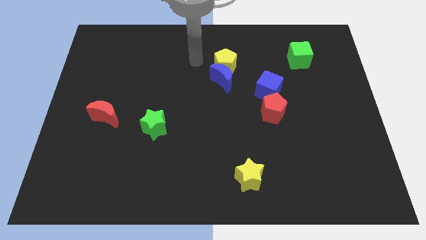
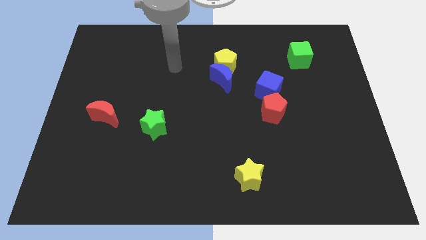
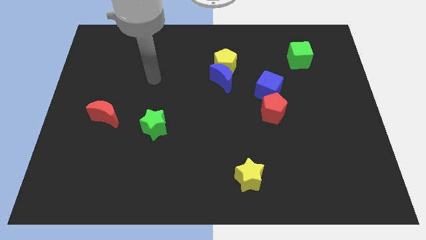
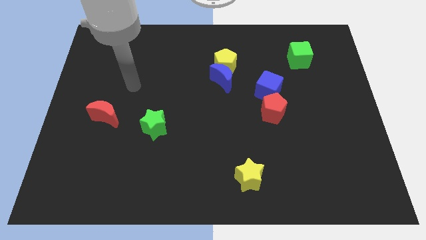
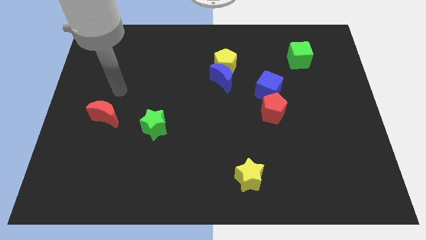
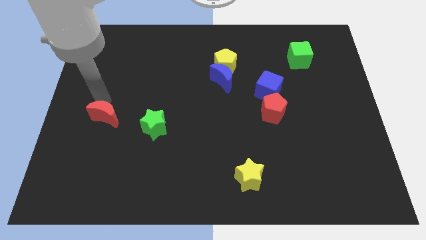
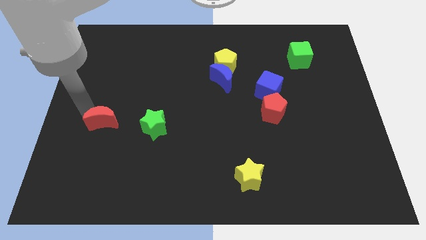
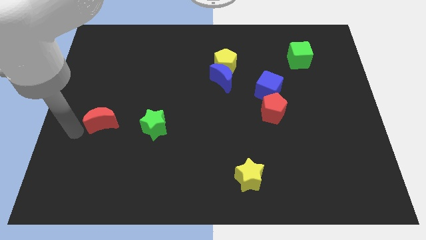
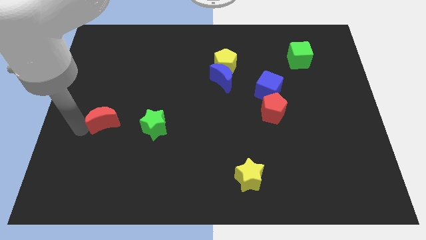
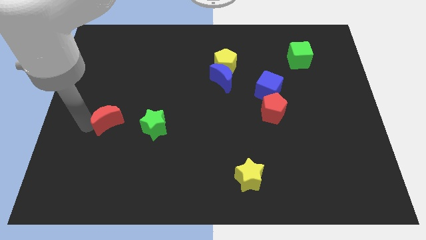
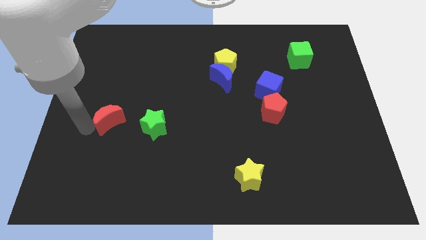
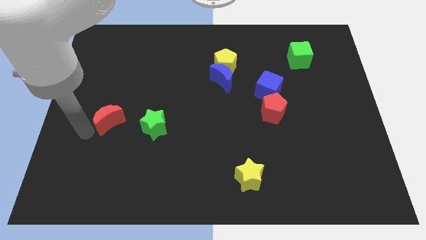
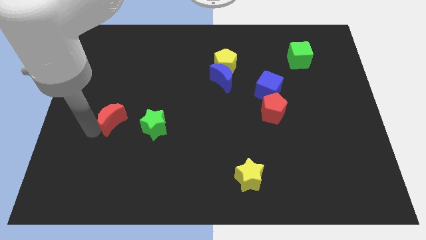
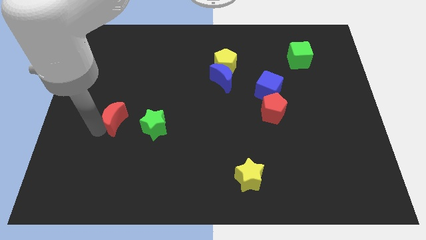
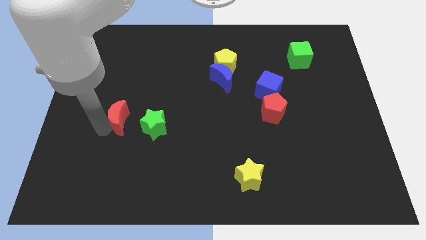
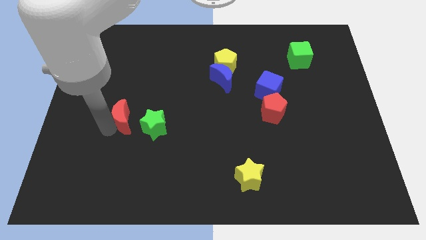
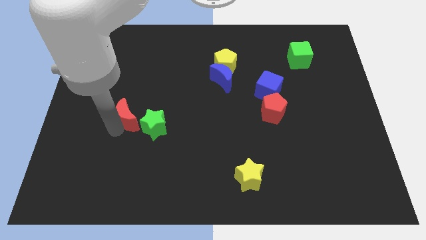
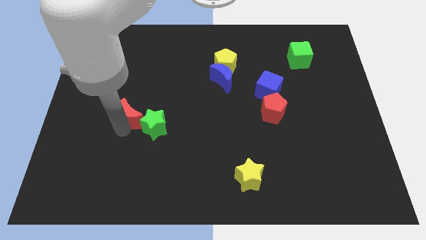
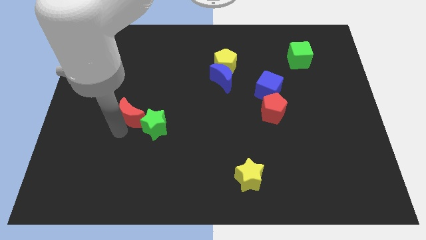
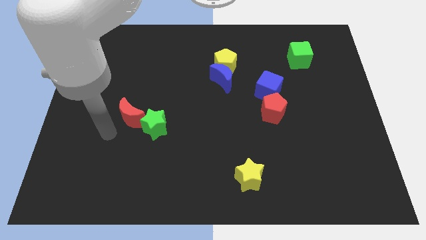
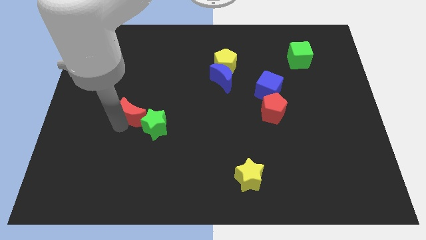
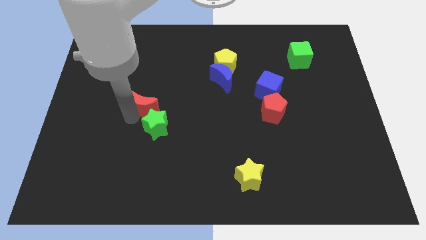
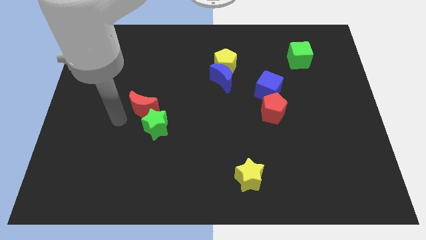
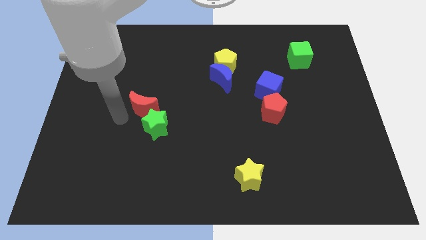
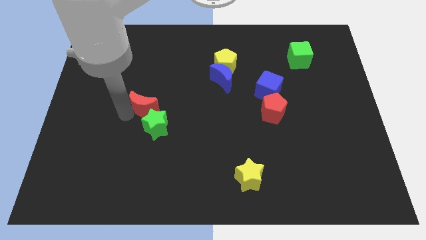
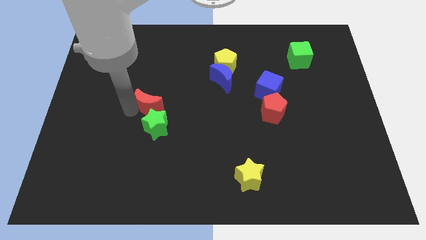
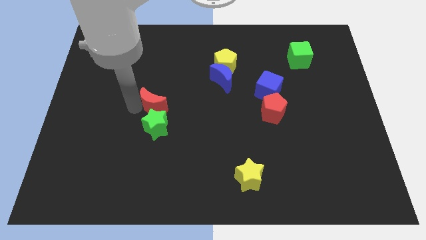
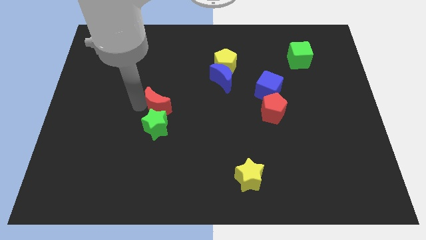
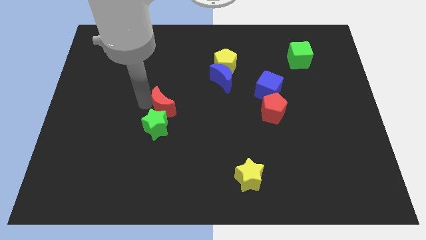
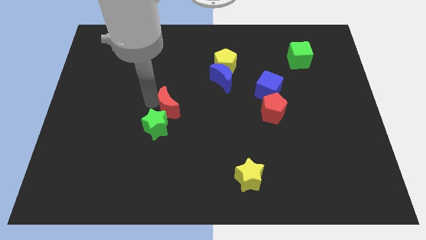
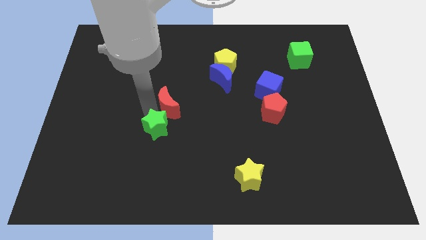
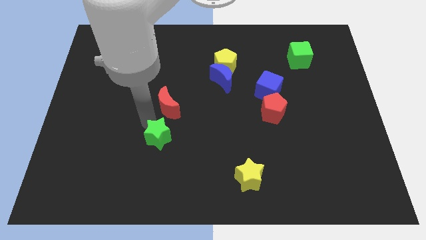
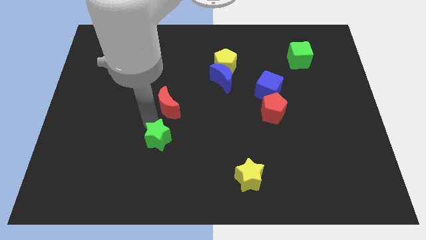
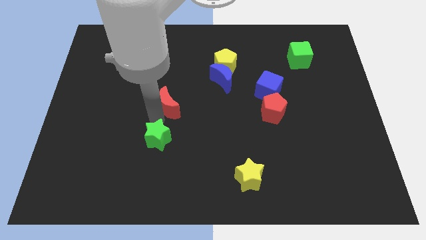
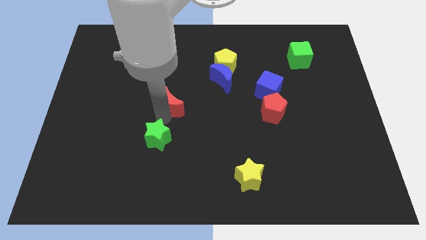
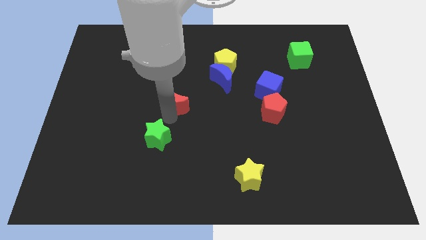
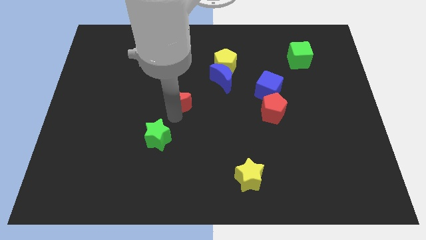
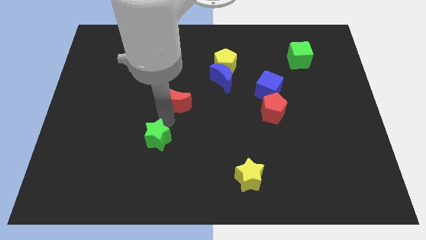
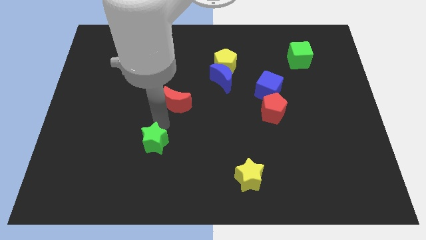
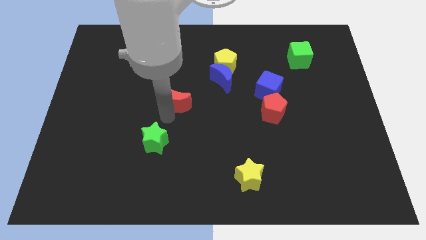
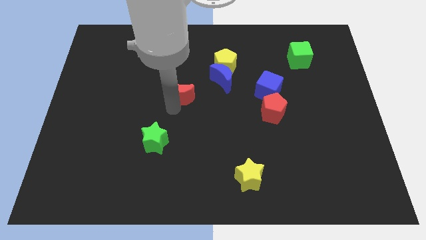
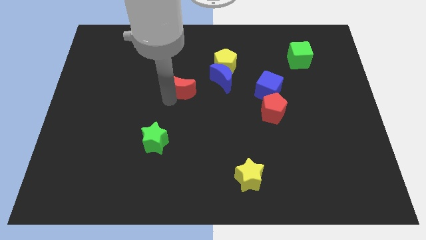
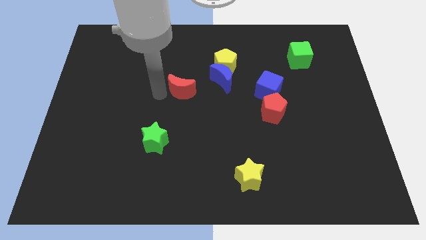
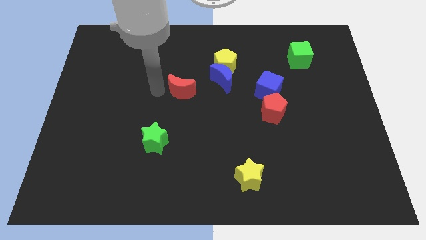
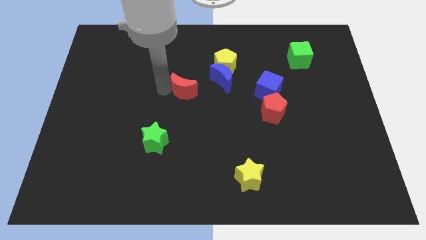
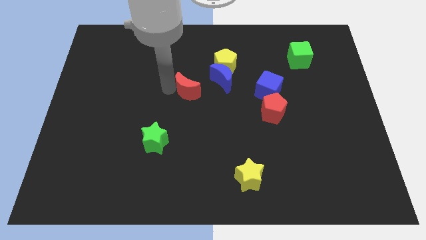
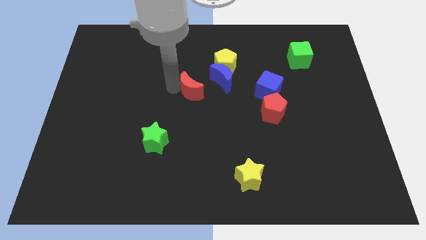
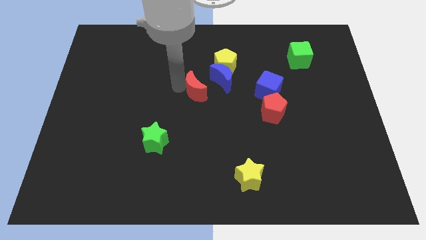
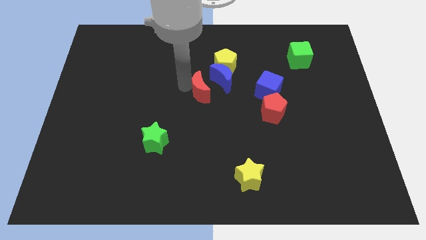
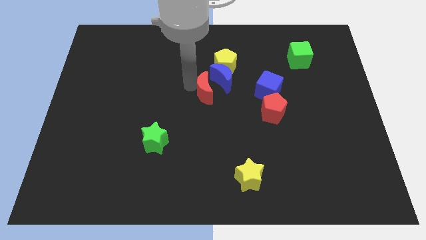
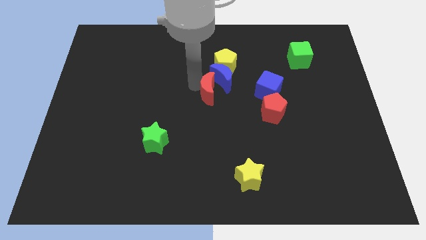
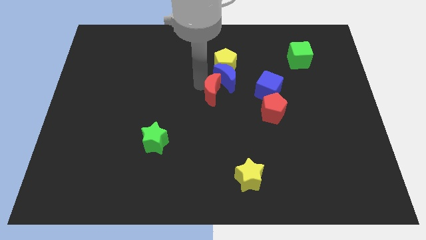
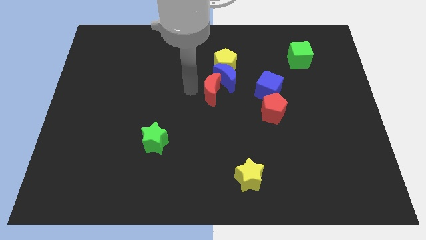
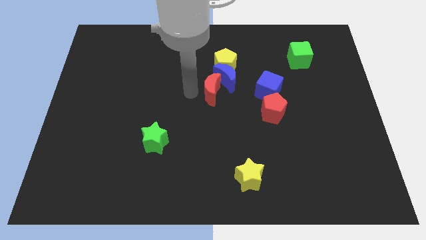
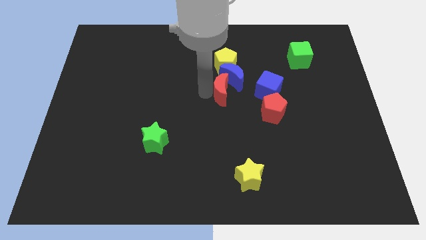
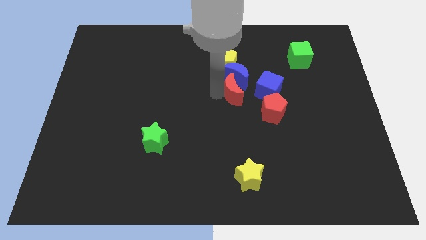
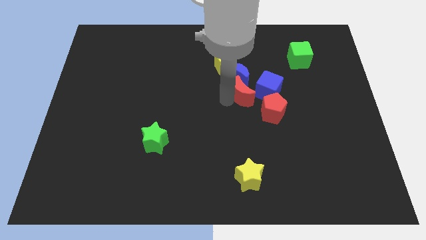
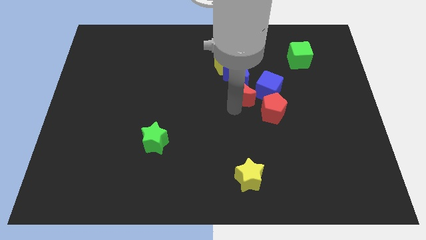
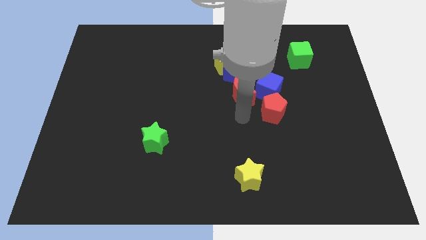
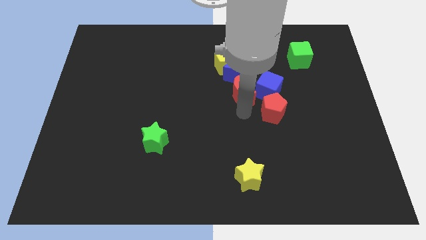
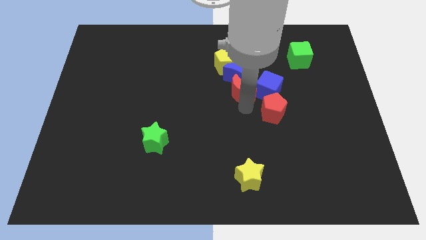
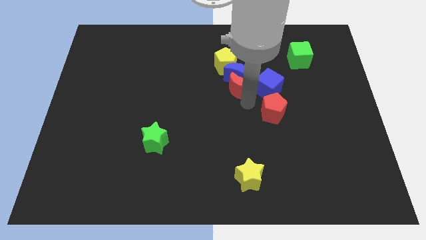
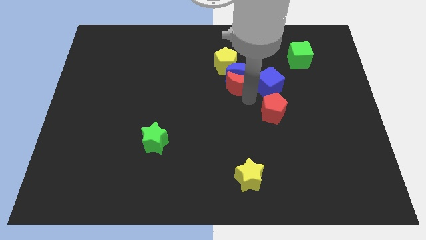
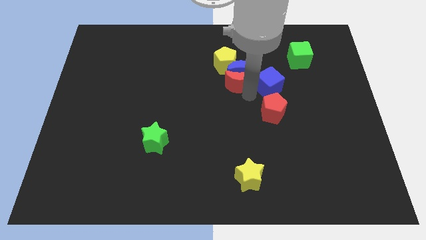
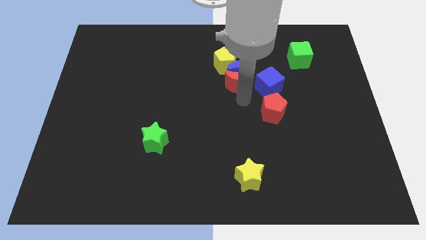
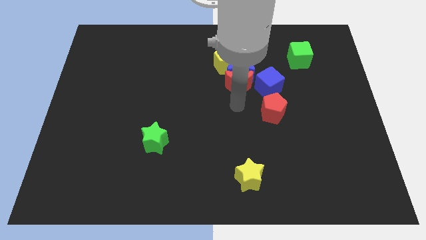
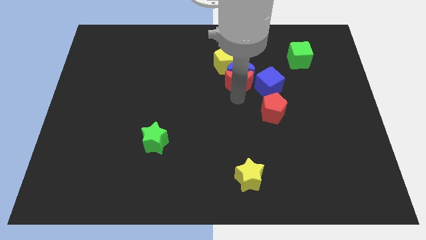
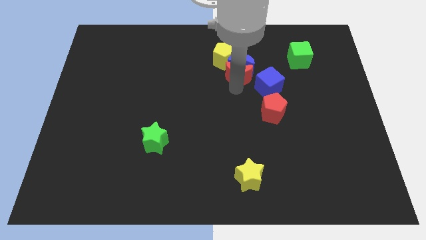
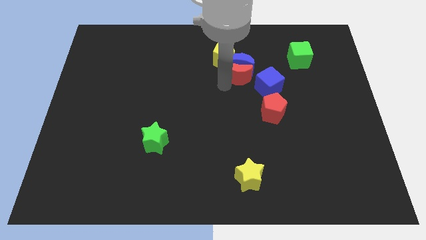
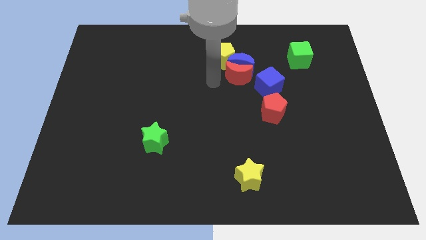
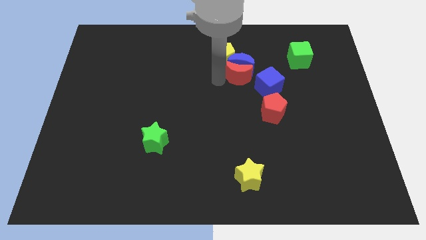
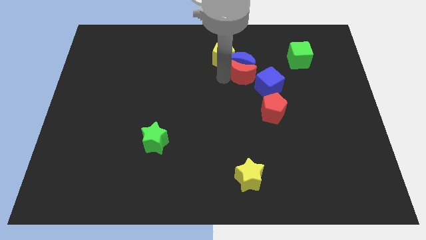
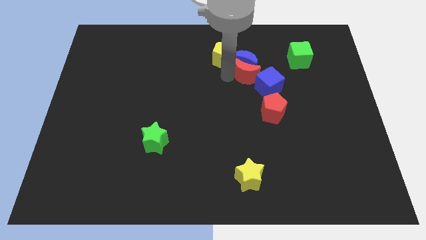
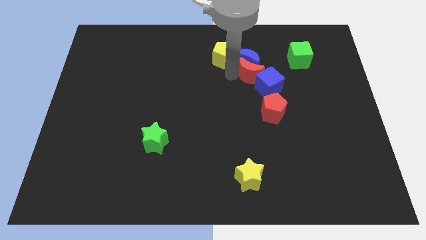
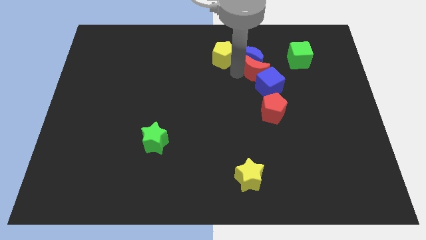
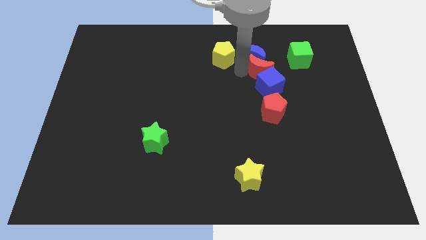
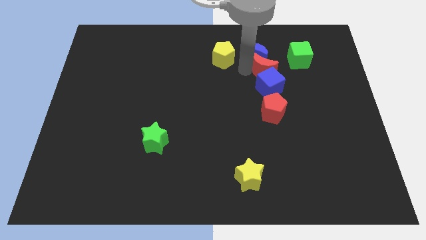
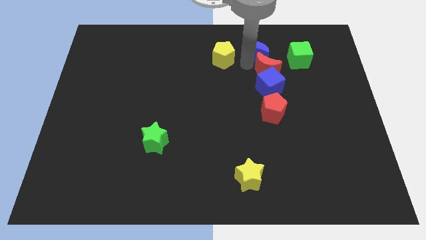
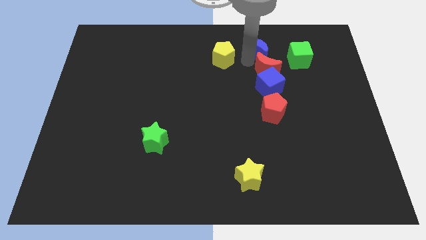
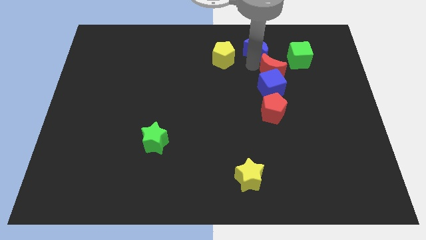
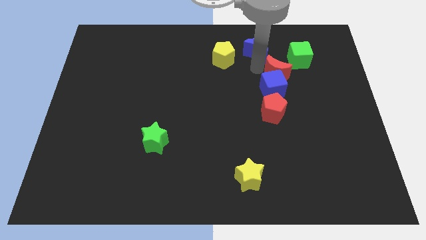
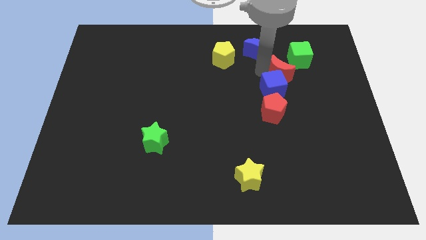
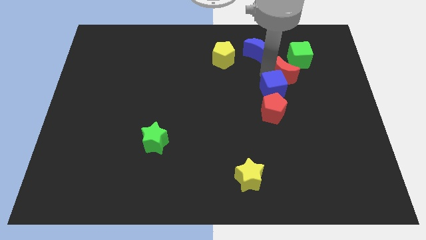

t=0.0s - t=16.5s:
push the red moon to the right of the blue cube
